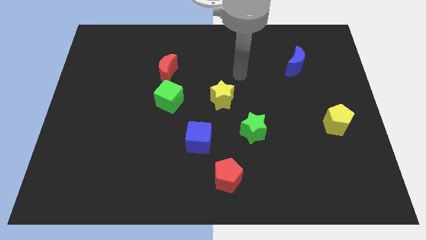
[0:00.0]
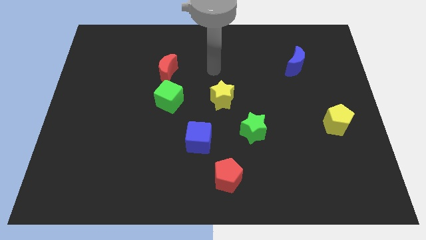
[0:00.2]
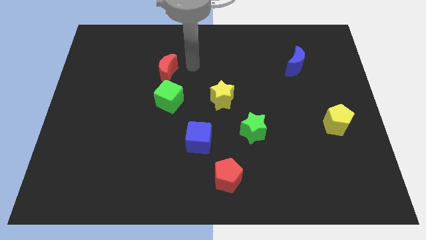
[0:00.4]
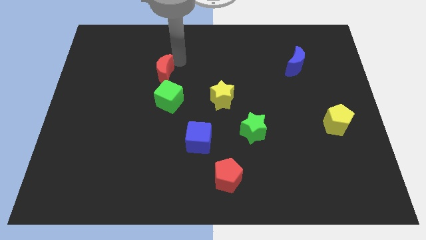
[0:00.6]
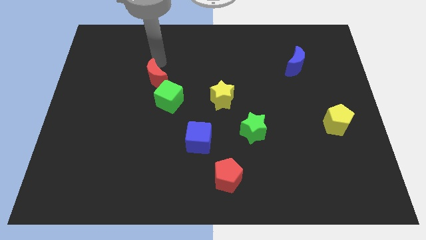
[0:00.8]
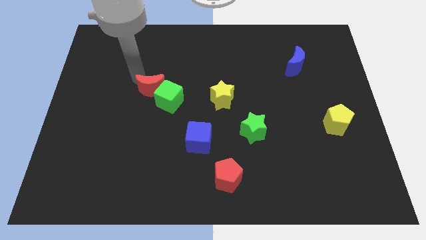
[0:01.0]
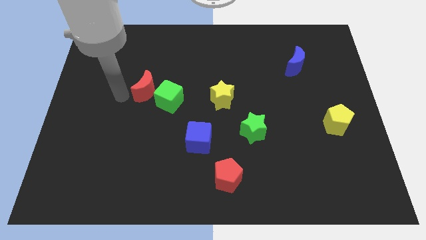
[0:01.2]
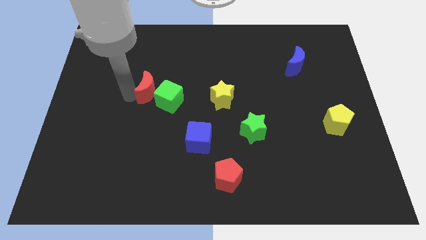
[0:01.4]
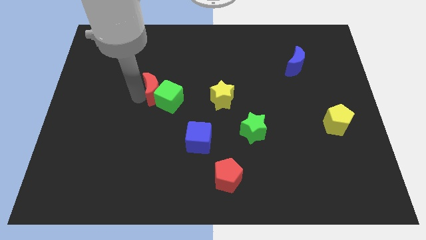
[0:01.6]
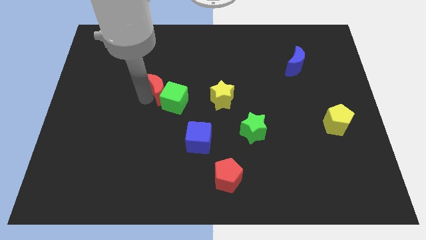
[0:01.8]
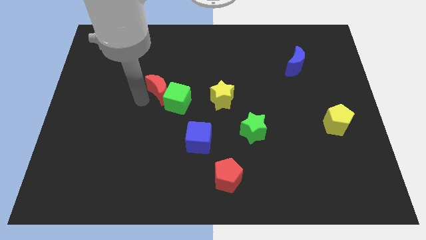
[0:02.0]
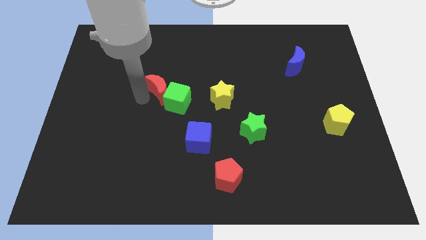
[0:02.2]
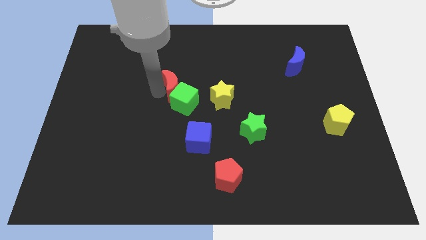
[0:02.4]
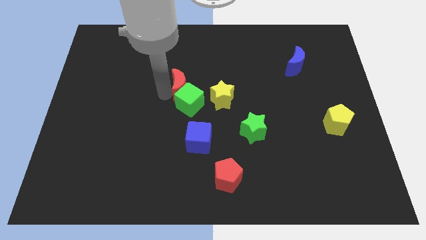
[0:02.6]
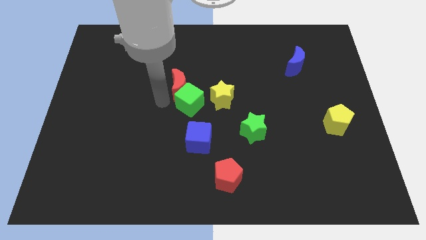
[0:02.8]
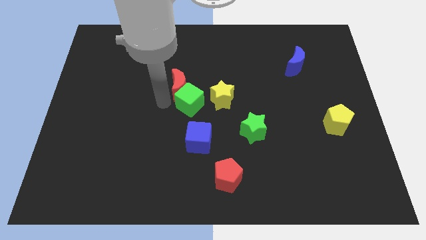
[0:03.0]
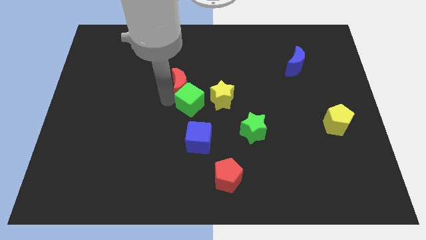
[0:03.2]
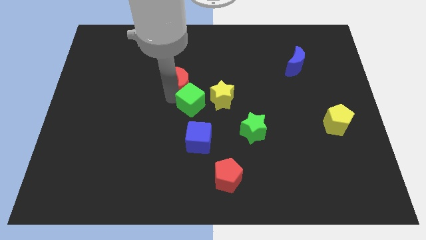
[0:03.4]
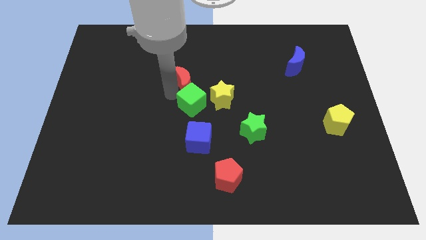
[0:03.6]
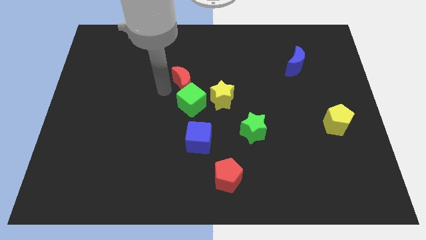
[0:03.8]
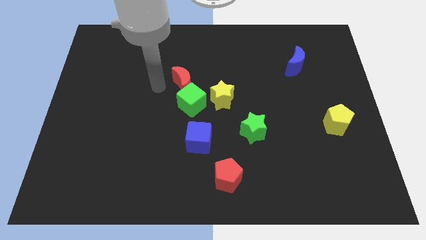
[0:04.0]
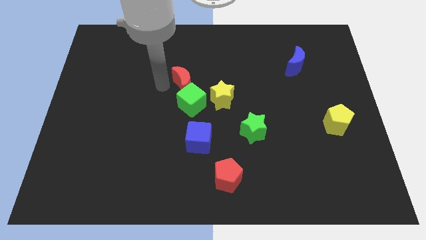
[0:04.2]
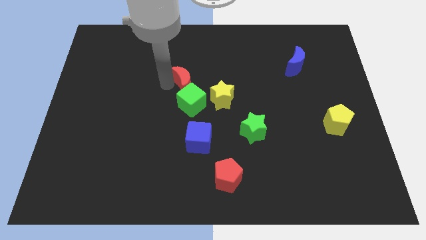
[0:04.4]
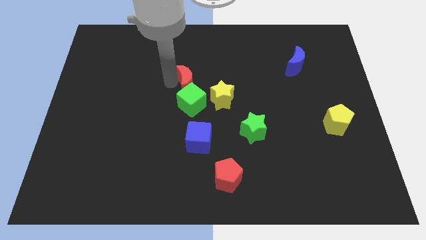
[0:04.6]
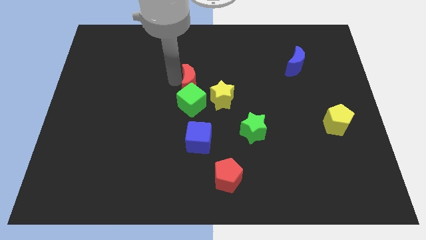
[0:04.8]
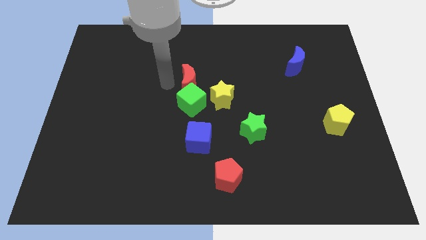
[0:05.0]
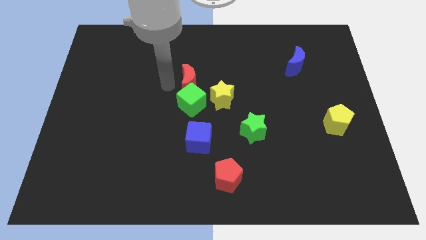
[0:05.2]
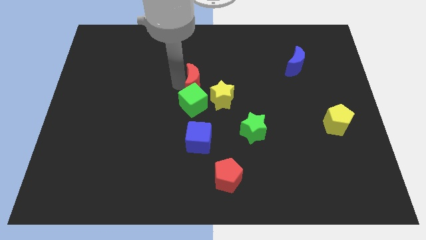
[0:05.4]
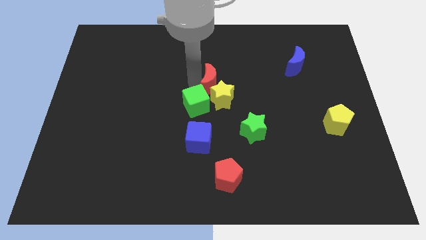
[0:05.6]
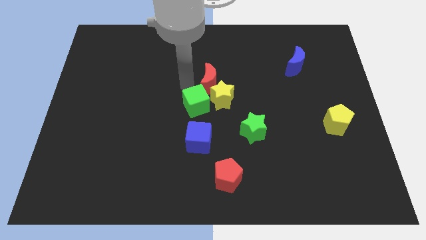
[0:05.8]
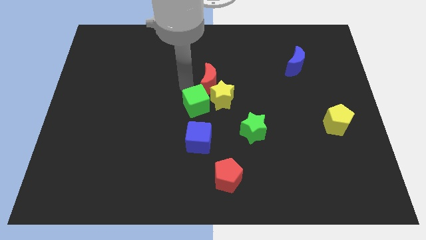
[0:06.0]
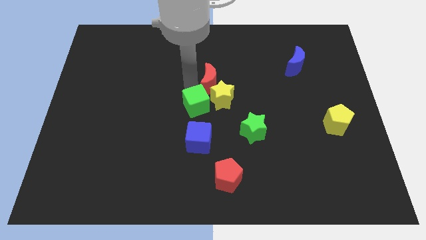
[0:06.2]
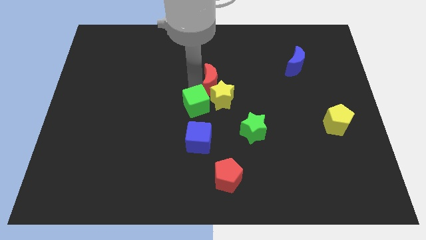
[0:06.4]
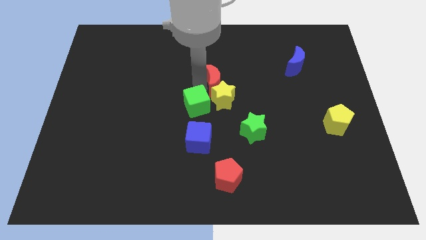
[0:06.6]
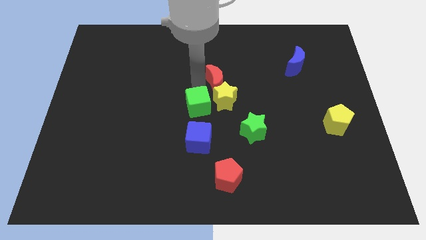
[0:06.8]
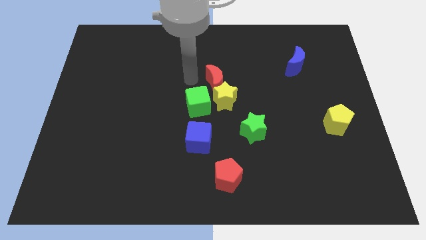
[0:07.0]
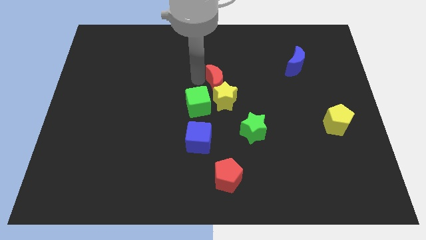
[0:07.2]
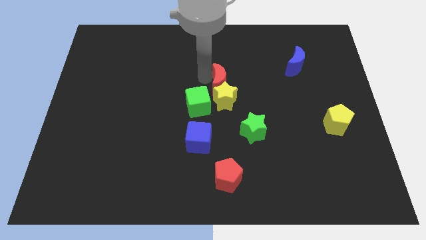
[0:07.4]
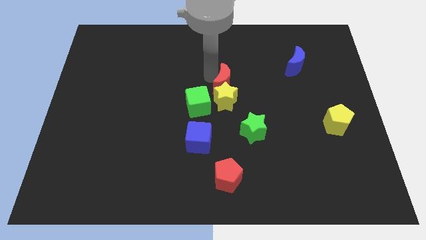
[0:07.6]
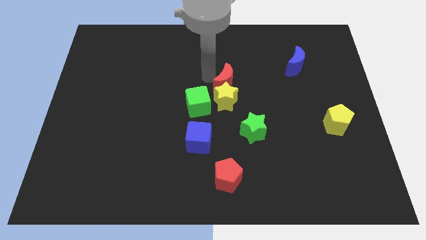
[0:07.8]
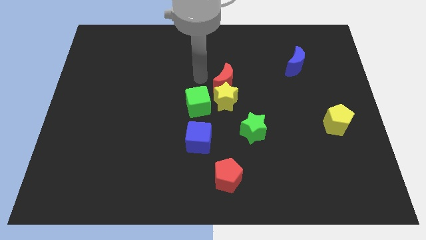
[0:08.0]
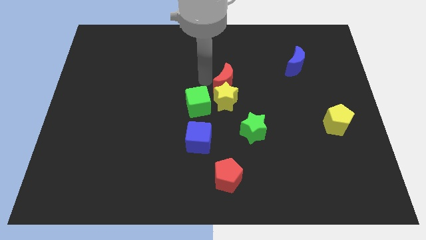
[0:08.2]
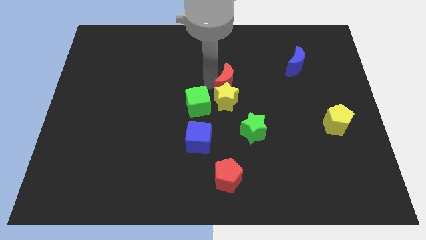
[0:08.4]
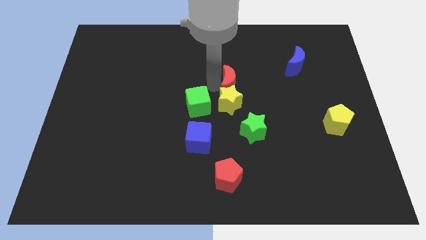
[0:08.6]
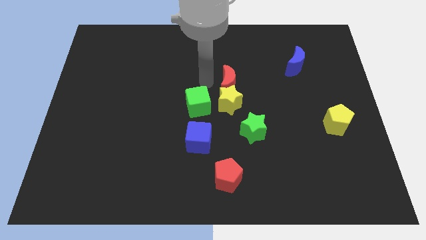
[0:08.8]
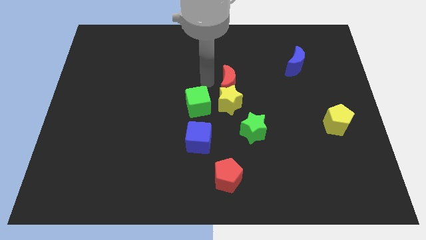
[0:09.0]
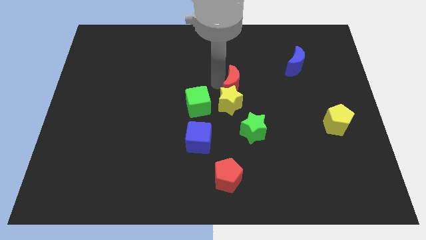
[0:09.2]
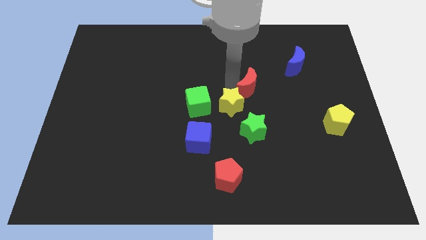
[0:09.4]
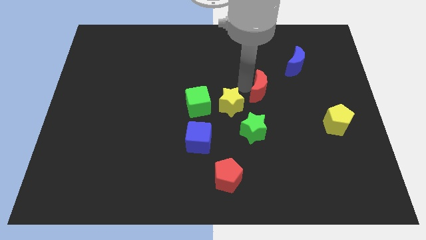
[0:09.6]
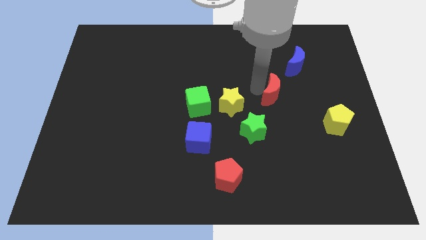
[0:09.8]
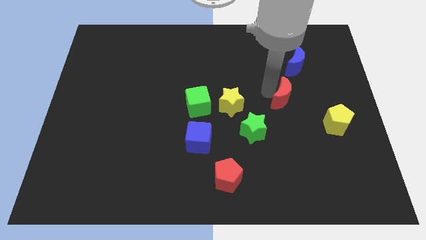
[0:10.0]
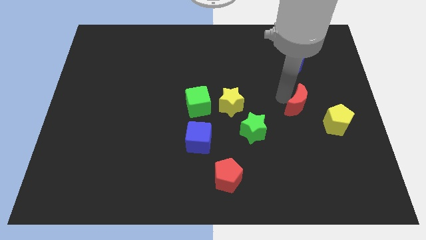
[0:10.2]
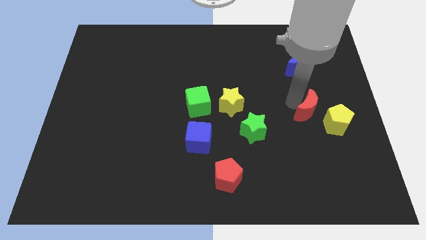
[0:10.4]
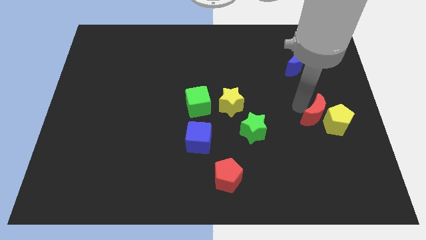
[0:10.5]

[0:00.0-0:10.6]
push the red moon towards the yellow pentagon

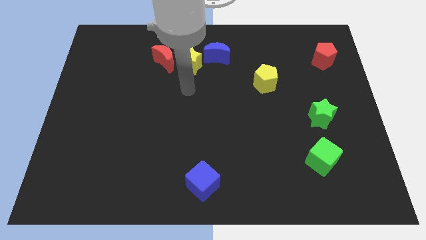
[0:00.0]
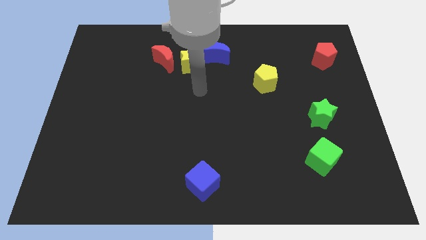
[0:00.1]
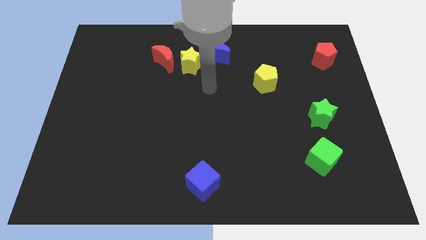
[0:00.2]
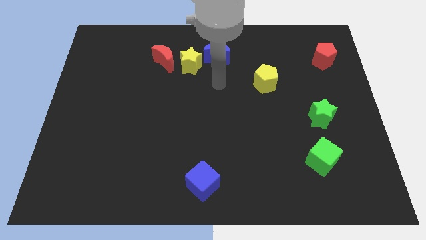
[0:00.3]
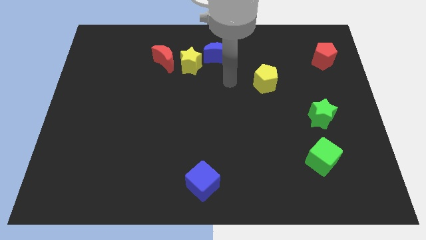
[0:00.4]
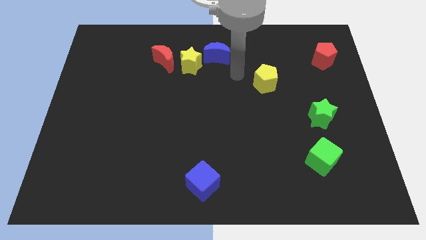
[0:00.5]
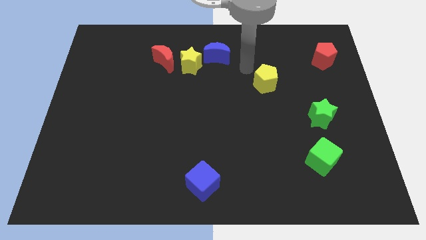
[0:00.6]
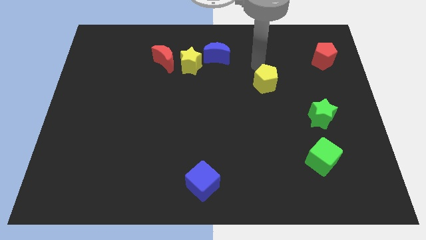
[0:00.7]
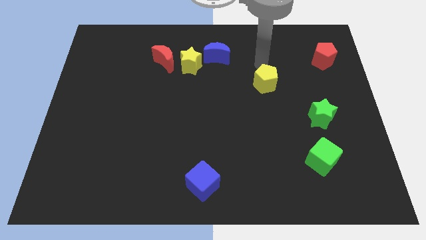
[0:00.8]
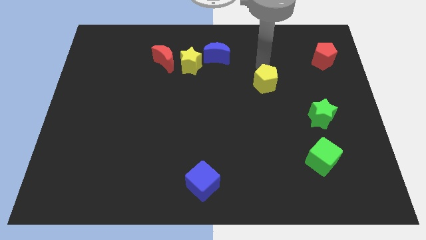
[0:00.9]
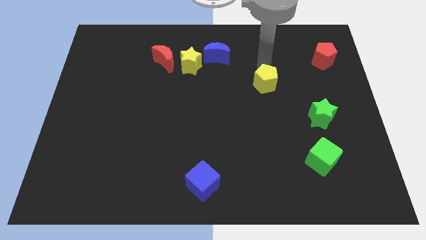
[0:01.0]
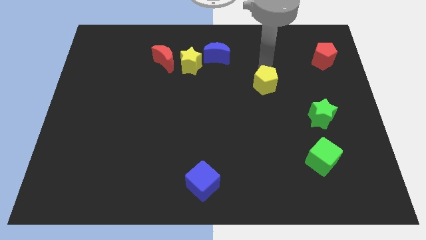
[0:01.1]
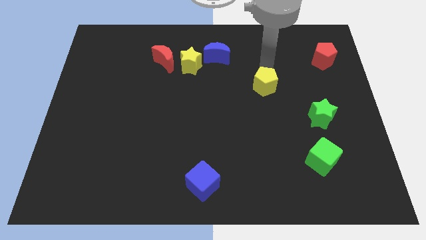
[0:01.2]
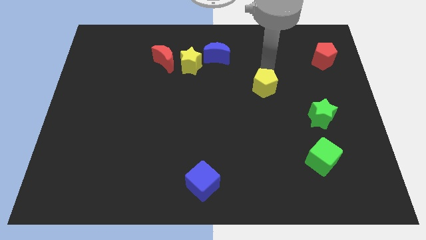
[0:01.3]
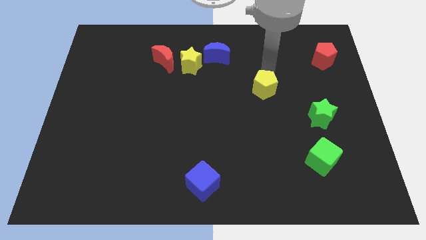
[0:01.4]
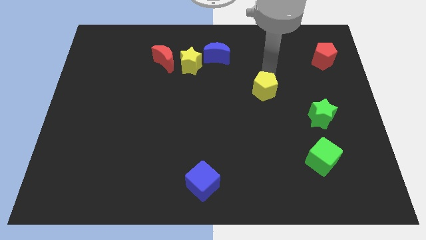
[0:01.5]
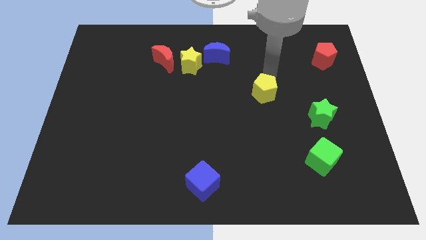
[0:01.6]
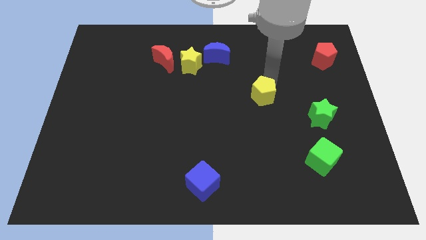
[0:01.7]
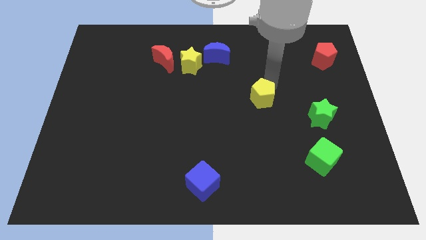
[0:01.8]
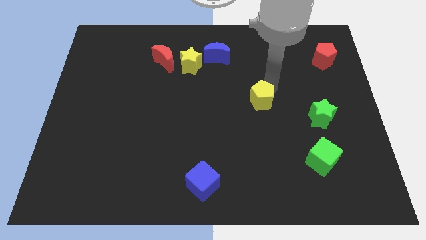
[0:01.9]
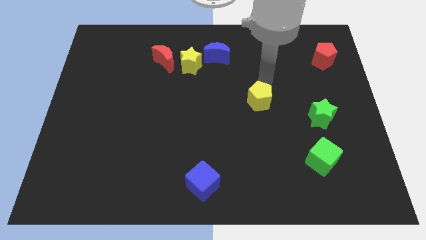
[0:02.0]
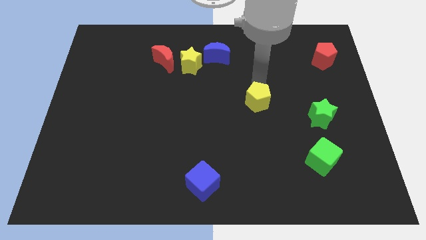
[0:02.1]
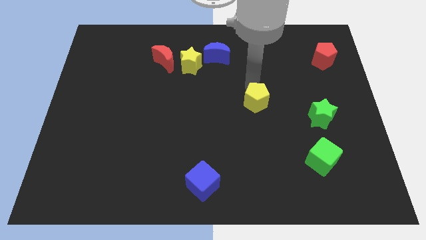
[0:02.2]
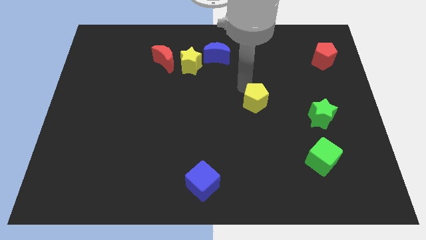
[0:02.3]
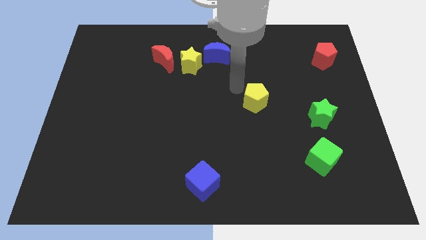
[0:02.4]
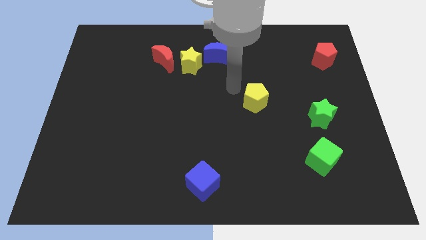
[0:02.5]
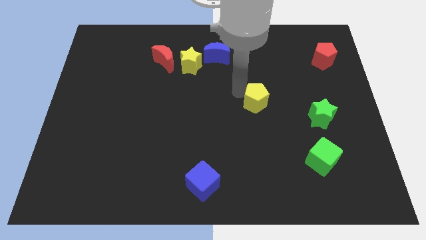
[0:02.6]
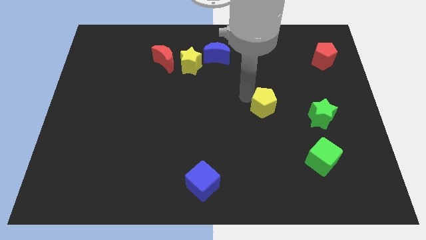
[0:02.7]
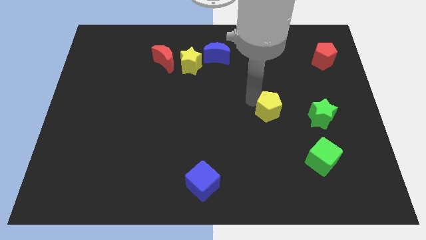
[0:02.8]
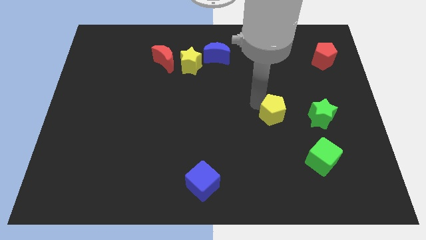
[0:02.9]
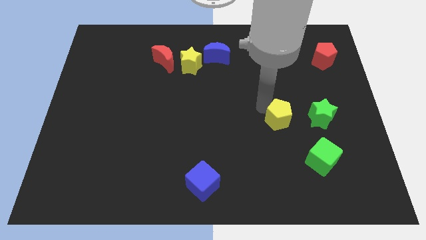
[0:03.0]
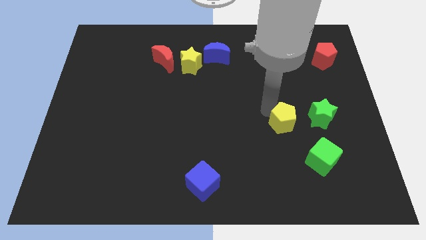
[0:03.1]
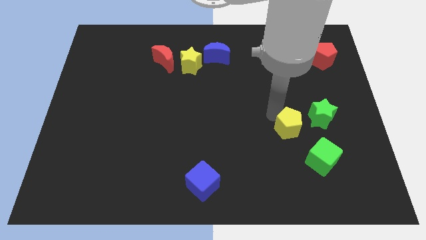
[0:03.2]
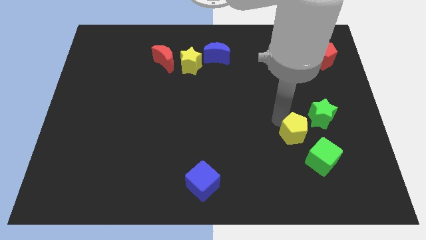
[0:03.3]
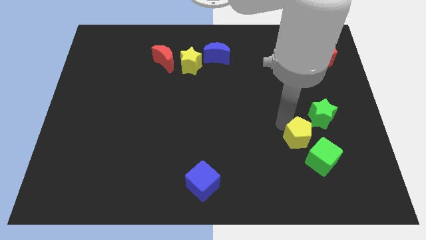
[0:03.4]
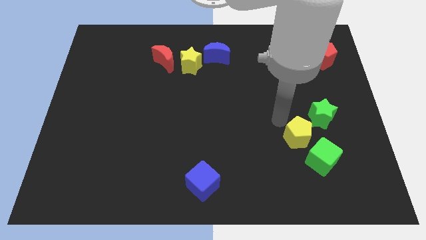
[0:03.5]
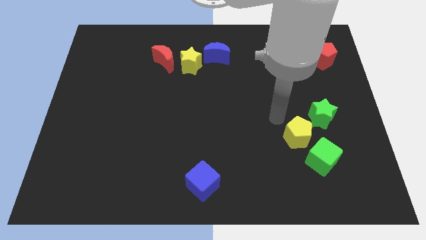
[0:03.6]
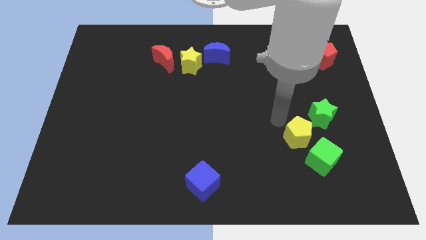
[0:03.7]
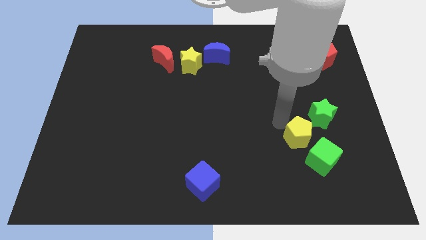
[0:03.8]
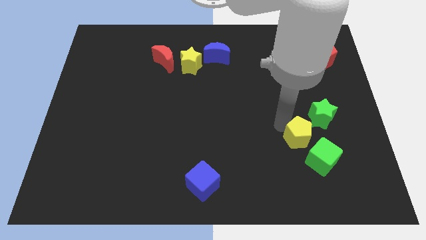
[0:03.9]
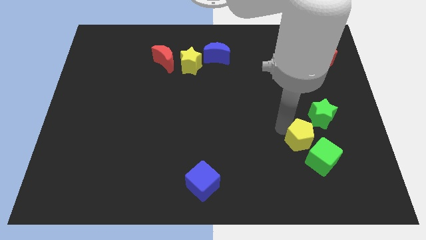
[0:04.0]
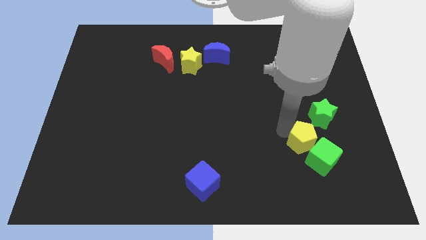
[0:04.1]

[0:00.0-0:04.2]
move the yellow pentagon to the green cube
